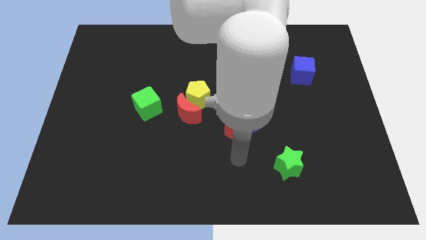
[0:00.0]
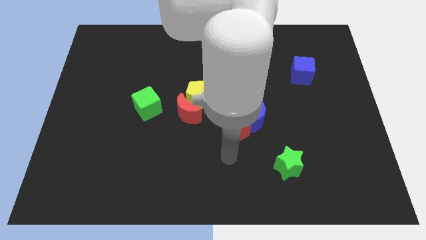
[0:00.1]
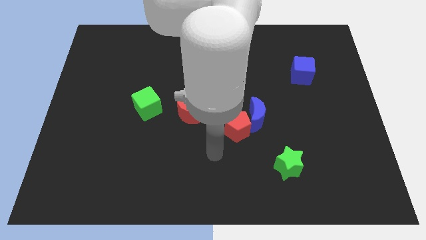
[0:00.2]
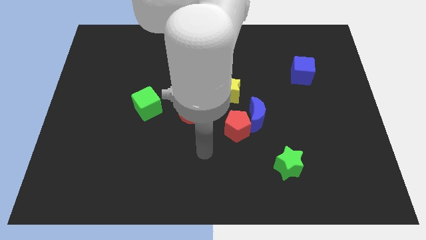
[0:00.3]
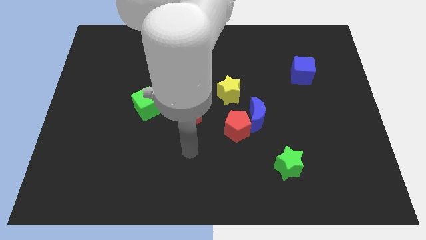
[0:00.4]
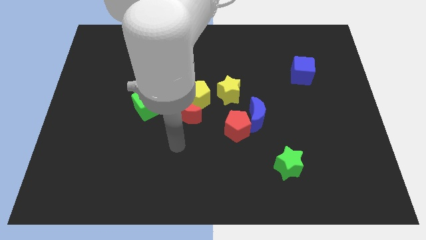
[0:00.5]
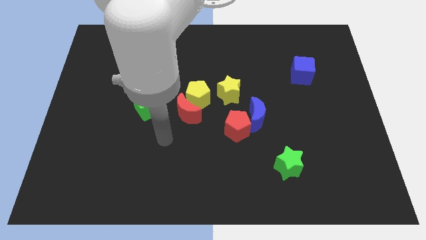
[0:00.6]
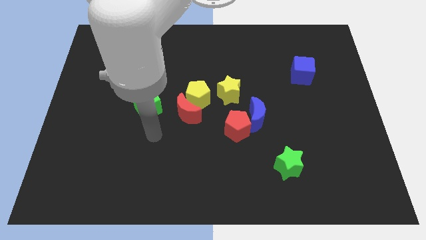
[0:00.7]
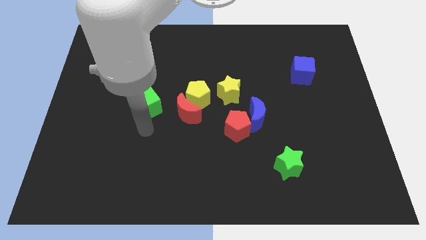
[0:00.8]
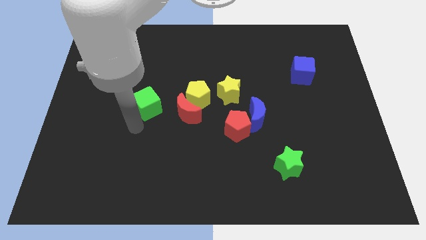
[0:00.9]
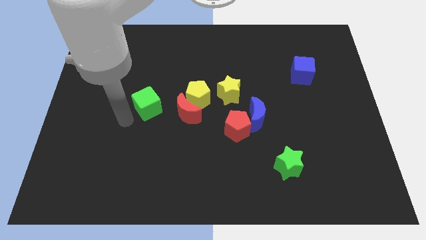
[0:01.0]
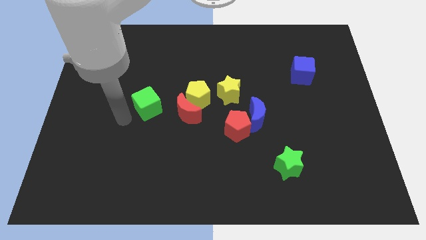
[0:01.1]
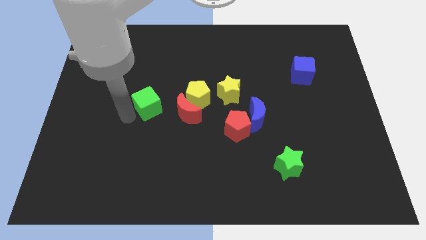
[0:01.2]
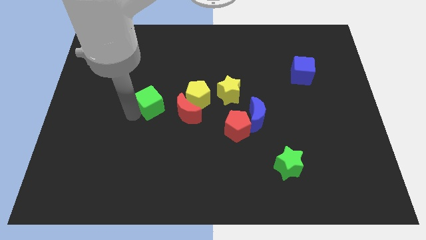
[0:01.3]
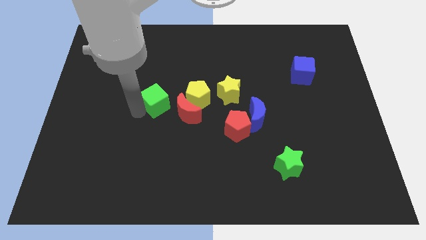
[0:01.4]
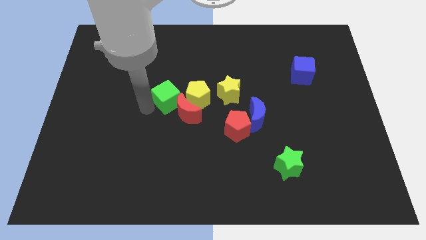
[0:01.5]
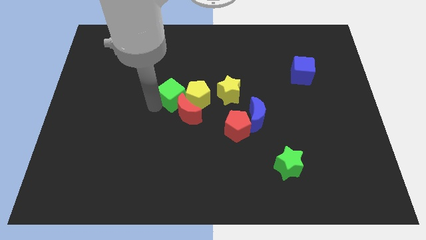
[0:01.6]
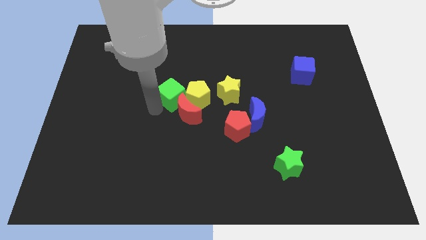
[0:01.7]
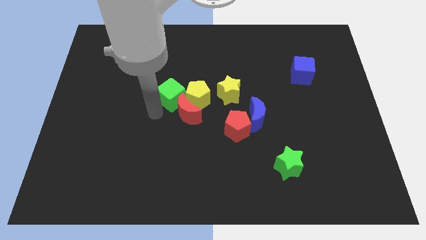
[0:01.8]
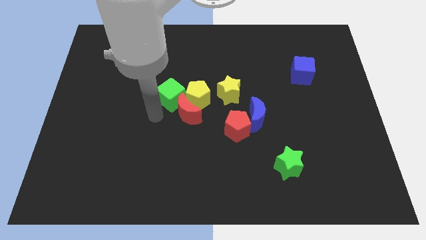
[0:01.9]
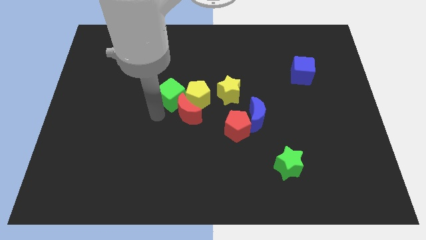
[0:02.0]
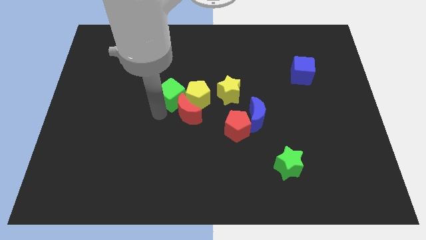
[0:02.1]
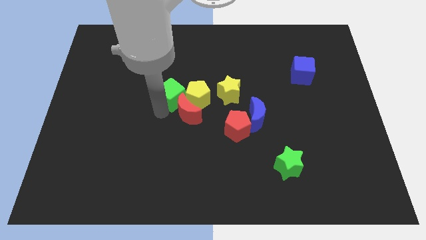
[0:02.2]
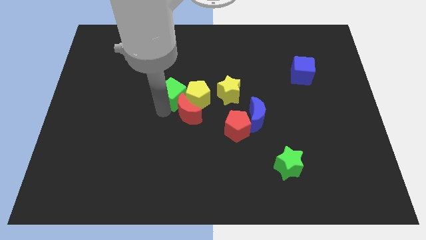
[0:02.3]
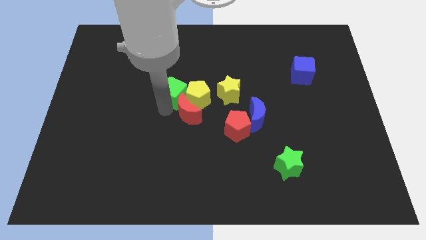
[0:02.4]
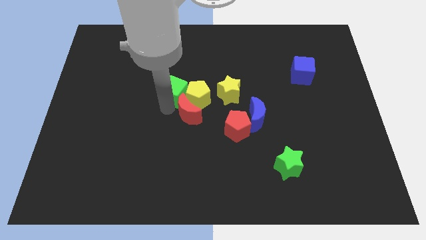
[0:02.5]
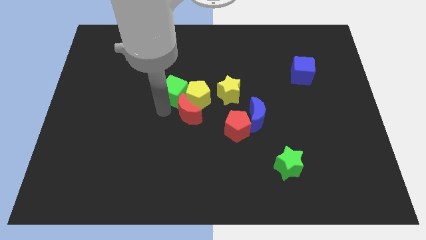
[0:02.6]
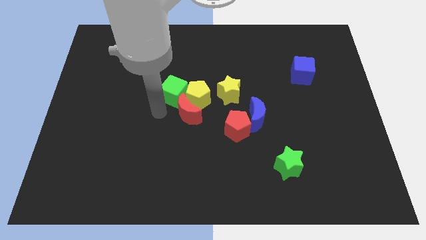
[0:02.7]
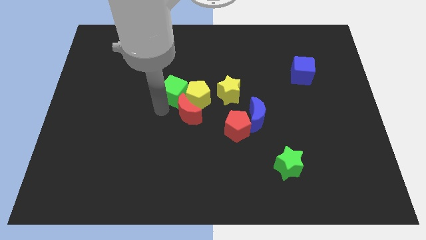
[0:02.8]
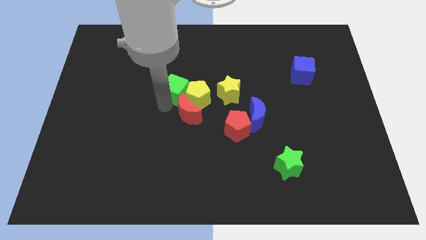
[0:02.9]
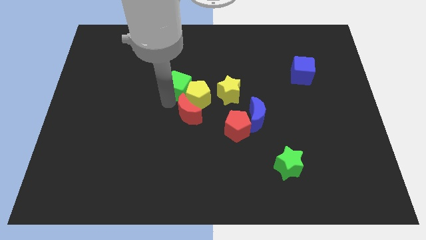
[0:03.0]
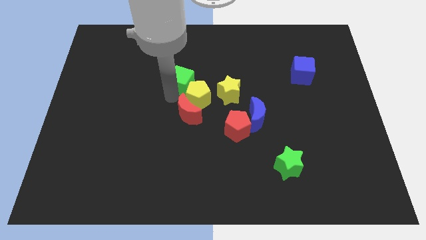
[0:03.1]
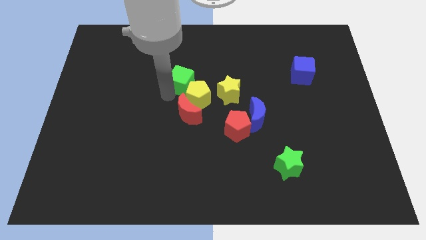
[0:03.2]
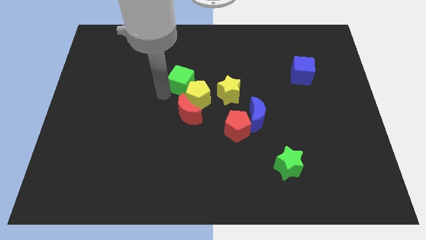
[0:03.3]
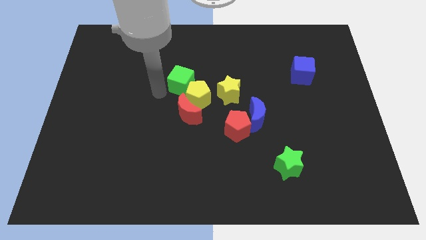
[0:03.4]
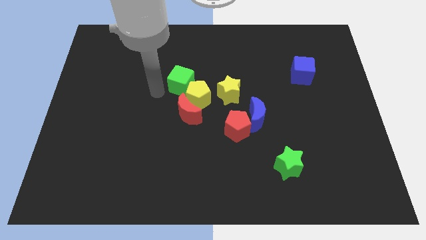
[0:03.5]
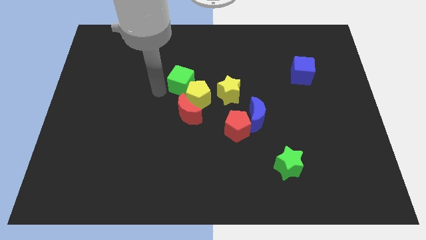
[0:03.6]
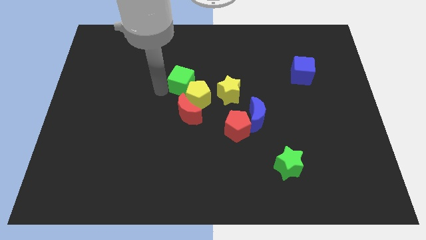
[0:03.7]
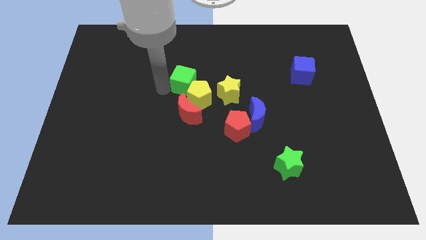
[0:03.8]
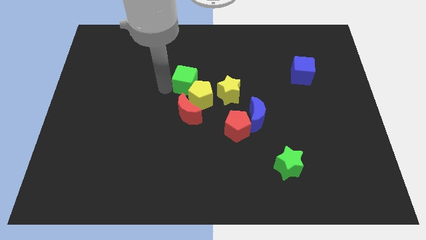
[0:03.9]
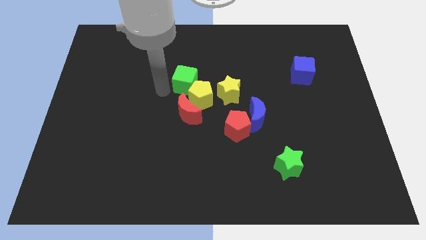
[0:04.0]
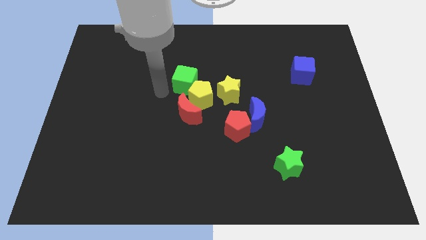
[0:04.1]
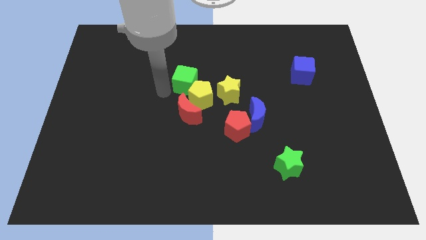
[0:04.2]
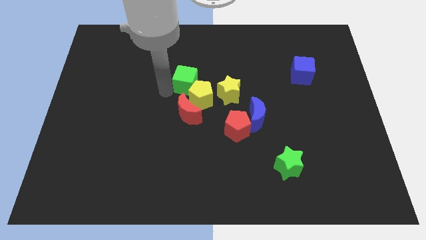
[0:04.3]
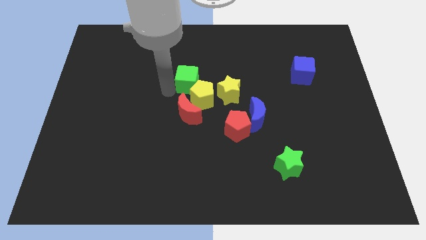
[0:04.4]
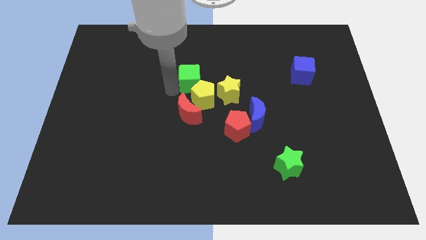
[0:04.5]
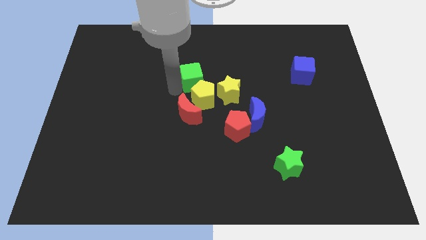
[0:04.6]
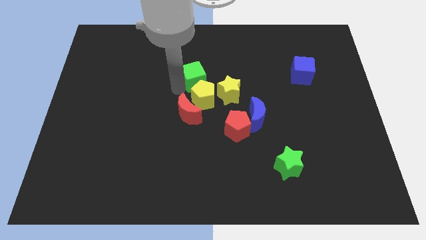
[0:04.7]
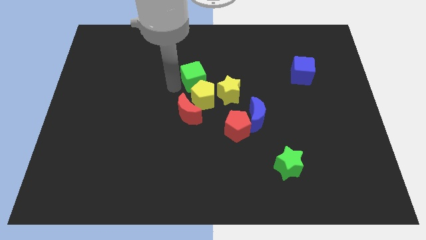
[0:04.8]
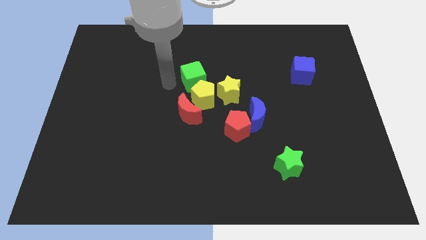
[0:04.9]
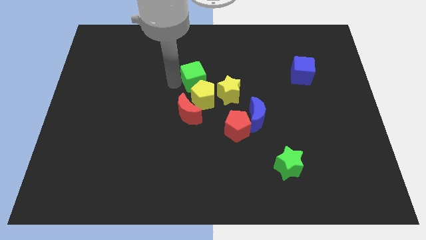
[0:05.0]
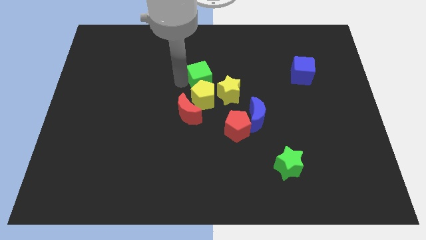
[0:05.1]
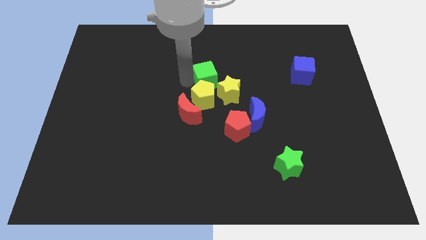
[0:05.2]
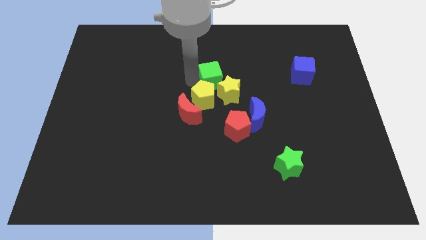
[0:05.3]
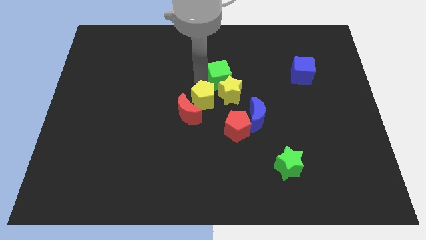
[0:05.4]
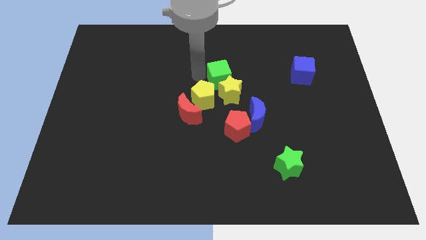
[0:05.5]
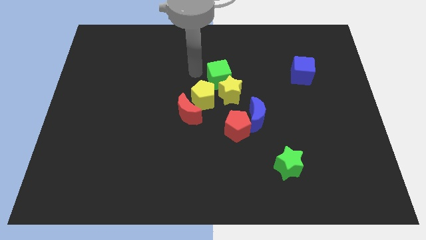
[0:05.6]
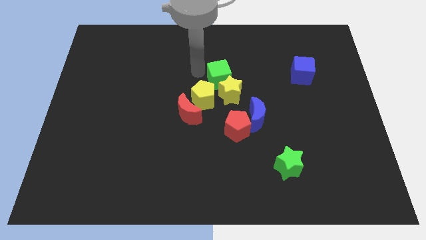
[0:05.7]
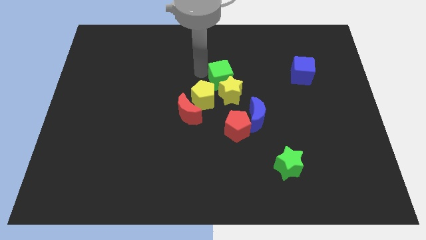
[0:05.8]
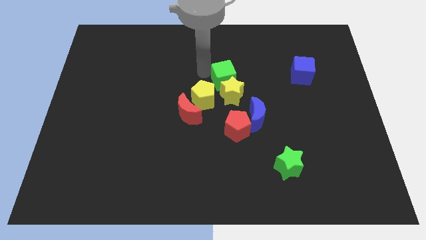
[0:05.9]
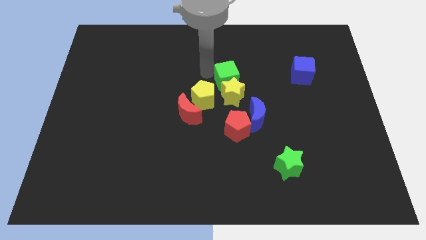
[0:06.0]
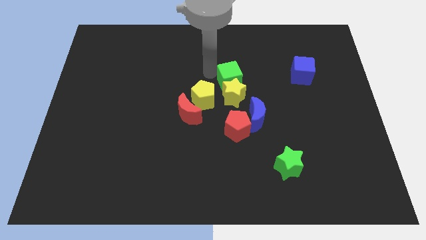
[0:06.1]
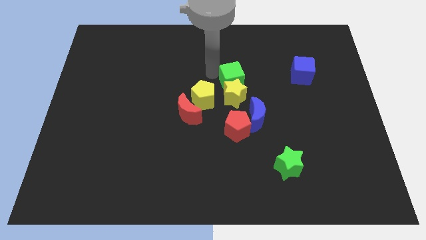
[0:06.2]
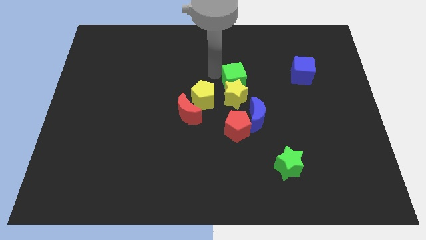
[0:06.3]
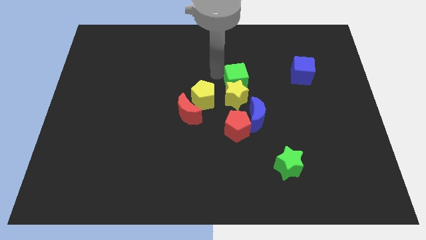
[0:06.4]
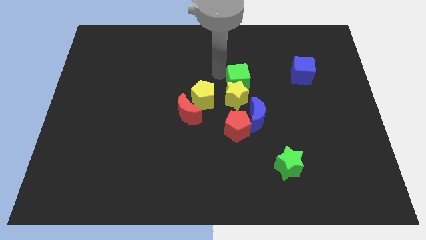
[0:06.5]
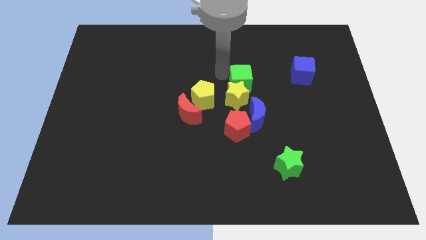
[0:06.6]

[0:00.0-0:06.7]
push the green cube to the right

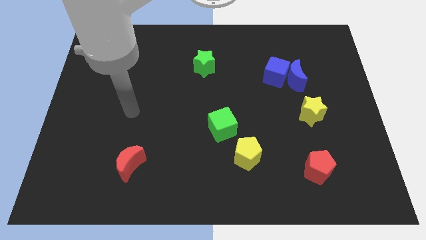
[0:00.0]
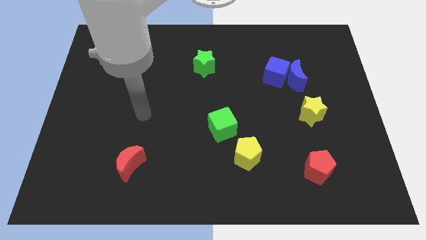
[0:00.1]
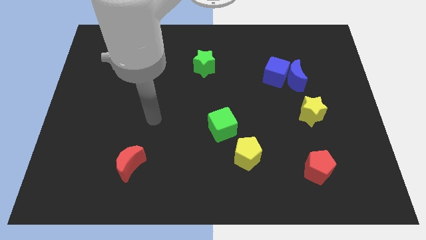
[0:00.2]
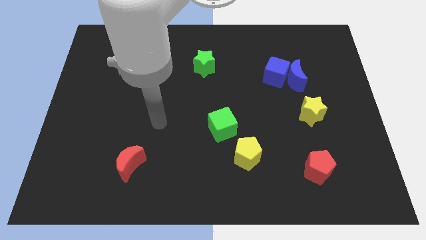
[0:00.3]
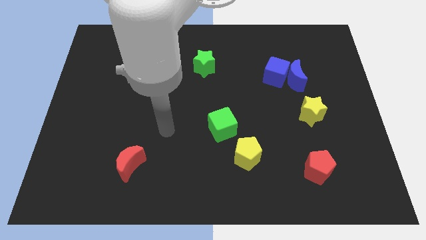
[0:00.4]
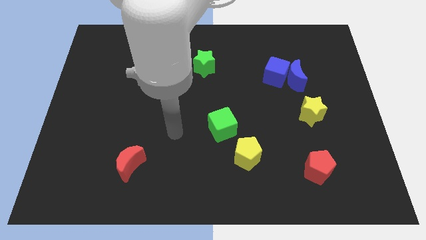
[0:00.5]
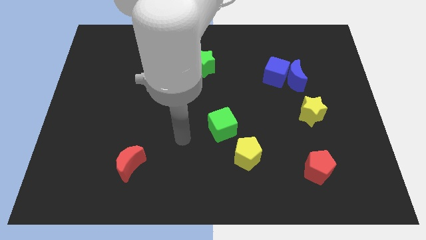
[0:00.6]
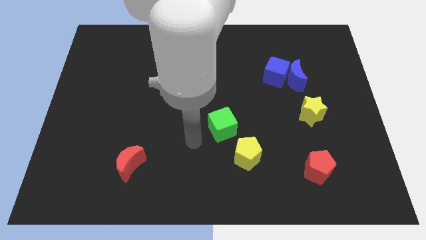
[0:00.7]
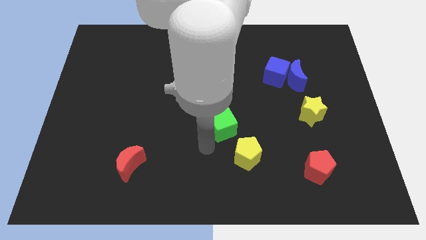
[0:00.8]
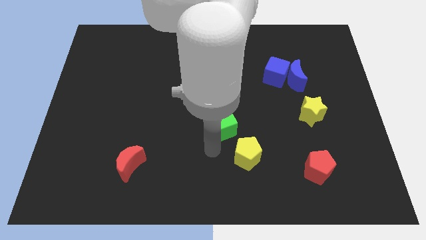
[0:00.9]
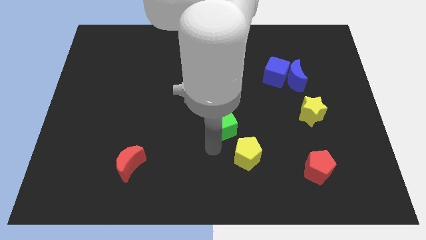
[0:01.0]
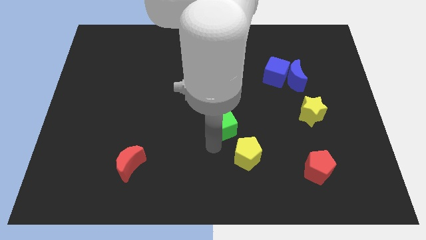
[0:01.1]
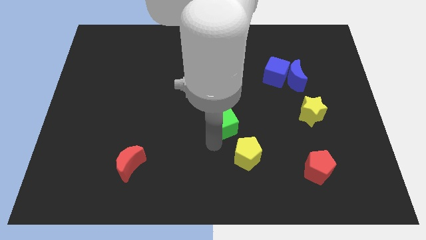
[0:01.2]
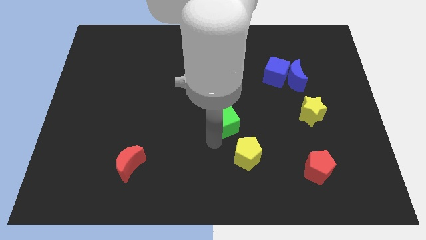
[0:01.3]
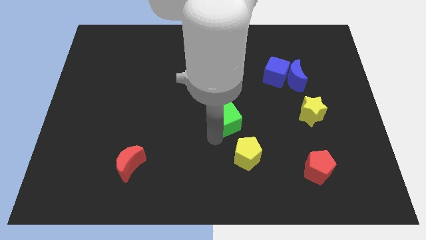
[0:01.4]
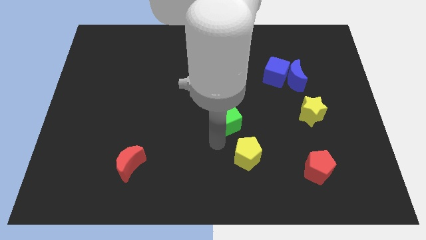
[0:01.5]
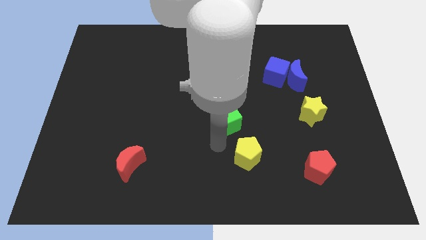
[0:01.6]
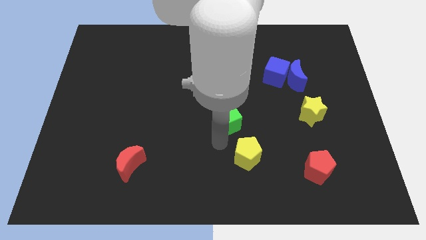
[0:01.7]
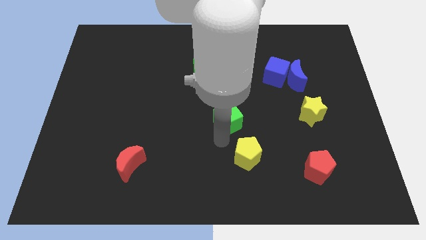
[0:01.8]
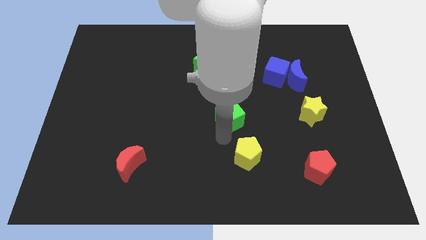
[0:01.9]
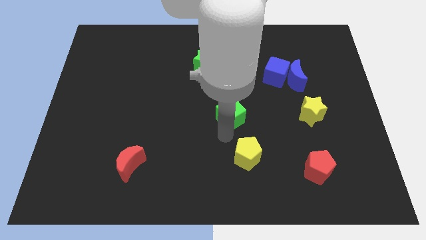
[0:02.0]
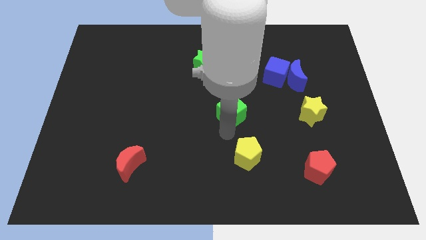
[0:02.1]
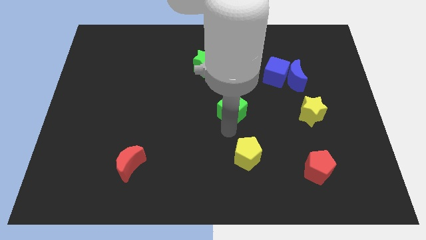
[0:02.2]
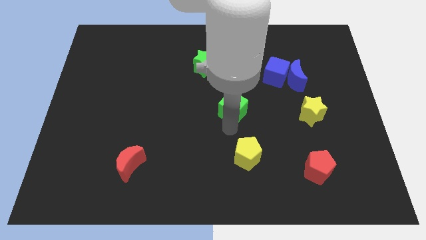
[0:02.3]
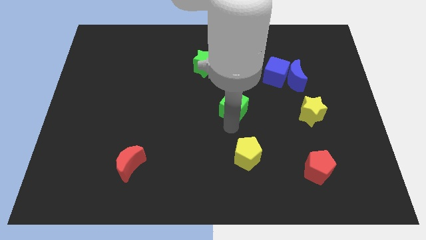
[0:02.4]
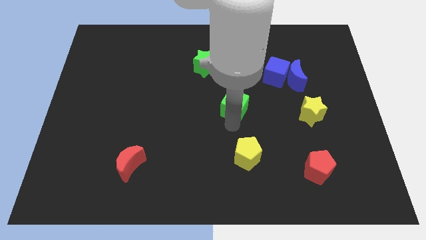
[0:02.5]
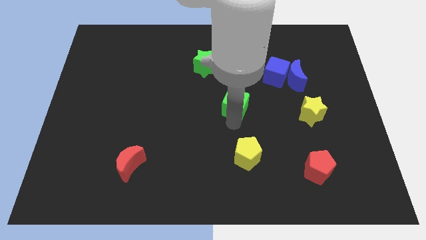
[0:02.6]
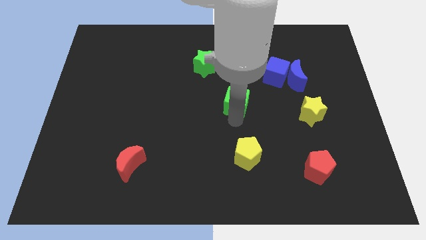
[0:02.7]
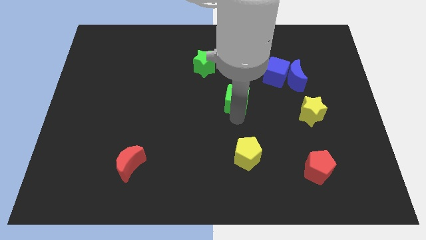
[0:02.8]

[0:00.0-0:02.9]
slightly slide the green cube upwards
